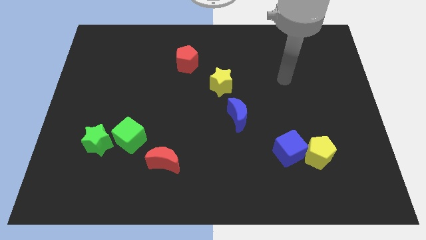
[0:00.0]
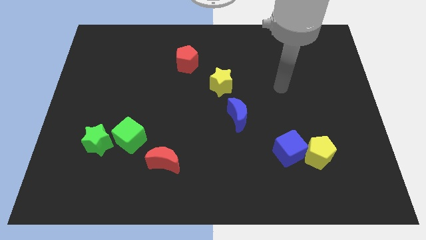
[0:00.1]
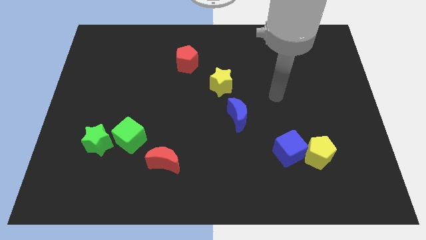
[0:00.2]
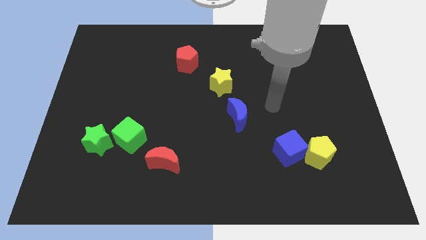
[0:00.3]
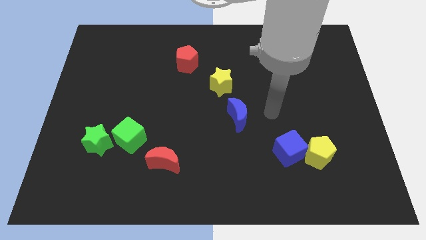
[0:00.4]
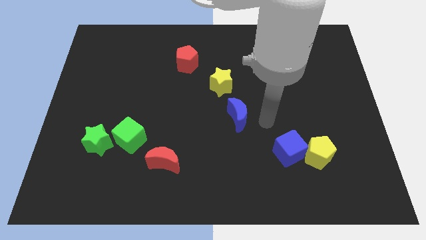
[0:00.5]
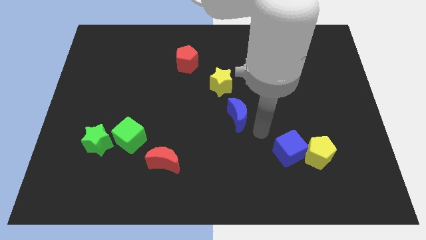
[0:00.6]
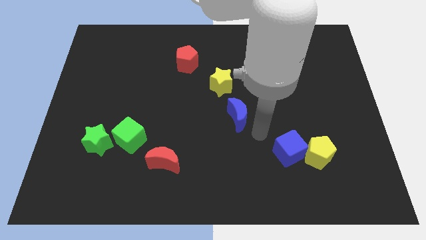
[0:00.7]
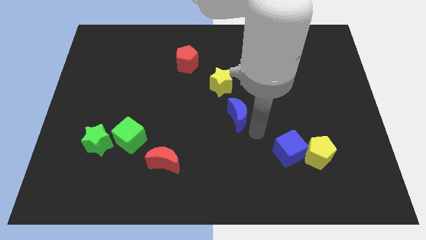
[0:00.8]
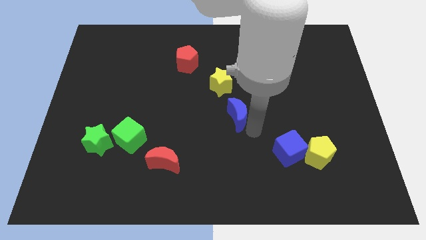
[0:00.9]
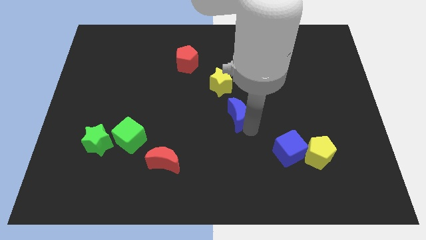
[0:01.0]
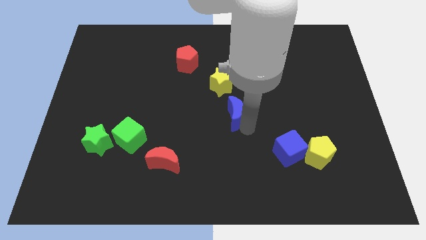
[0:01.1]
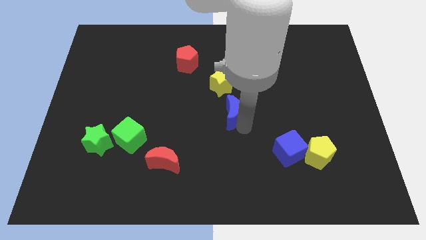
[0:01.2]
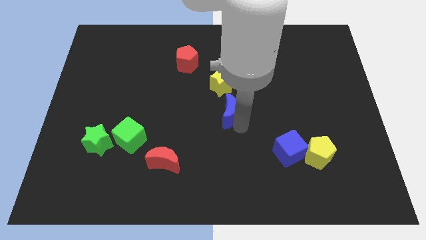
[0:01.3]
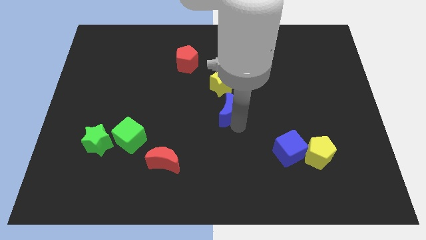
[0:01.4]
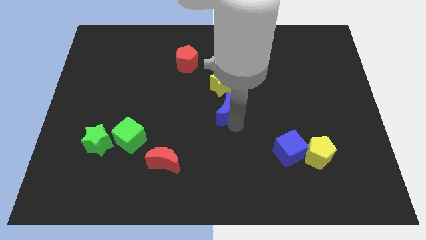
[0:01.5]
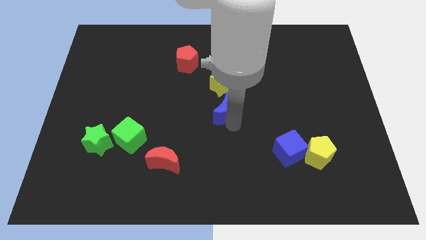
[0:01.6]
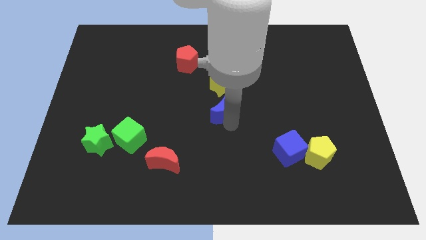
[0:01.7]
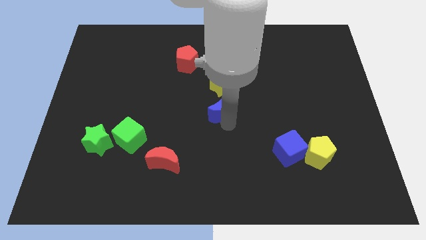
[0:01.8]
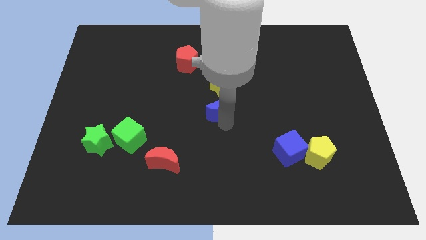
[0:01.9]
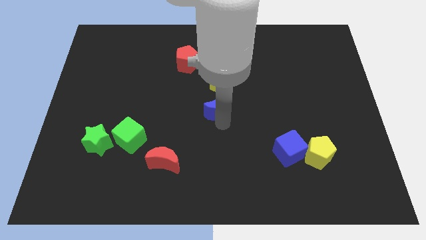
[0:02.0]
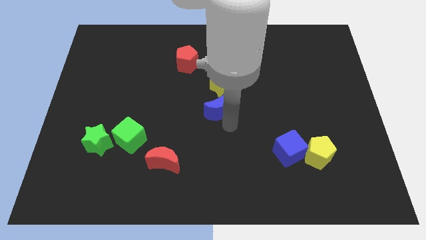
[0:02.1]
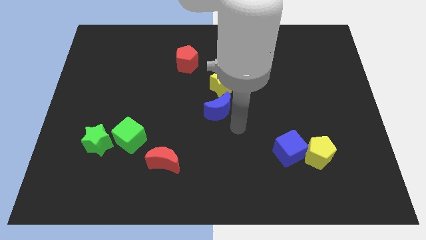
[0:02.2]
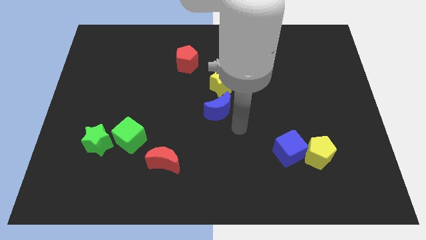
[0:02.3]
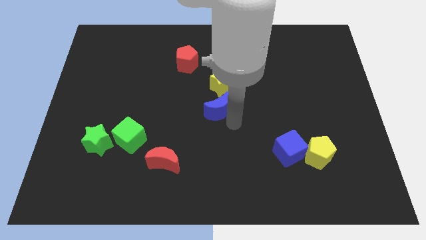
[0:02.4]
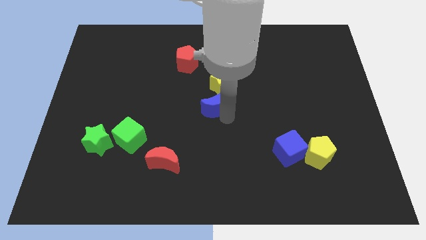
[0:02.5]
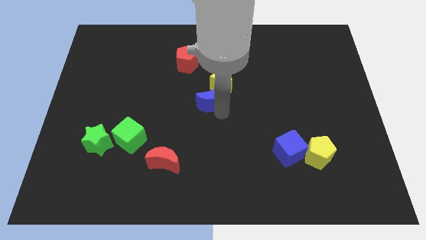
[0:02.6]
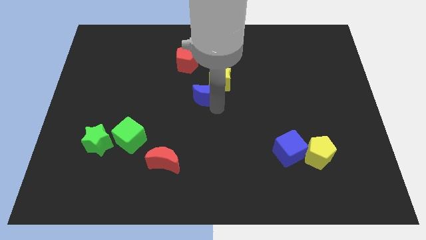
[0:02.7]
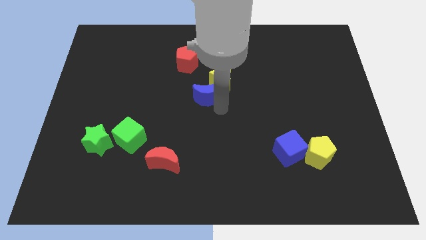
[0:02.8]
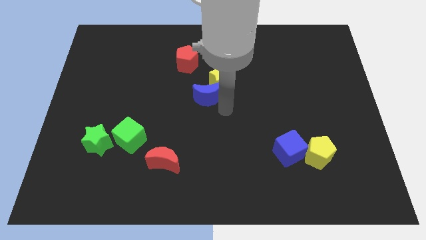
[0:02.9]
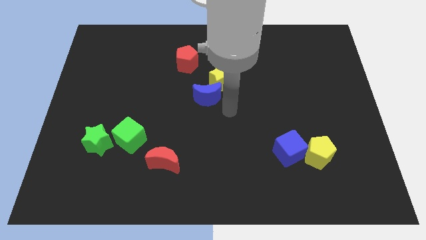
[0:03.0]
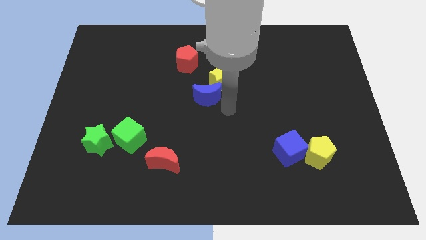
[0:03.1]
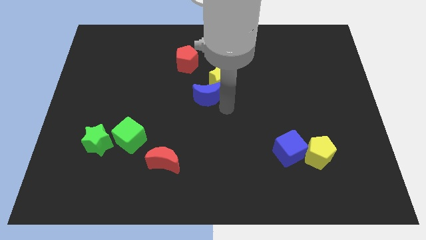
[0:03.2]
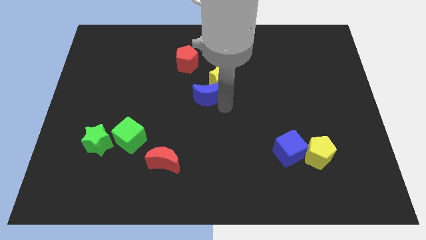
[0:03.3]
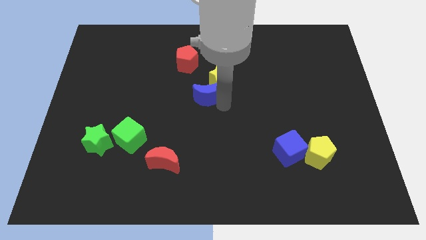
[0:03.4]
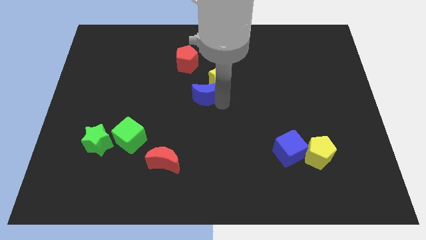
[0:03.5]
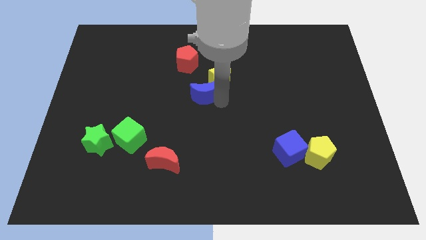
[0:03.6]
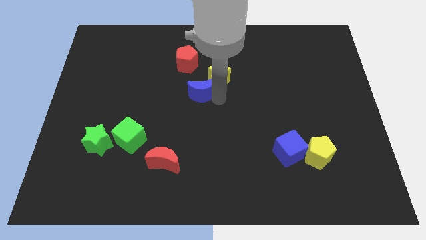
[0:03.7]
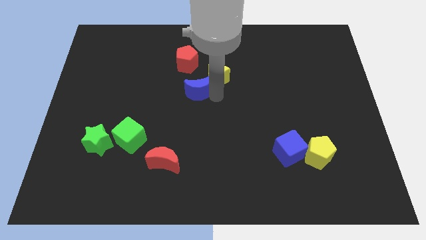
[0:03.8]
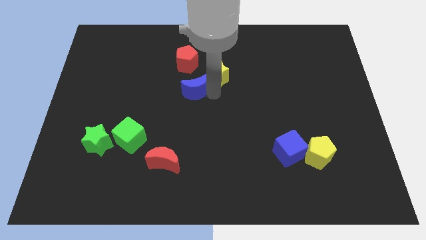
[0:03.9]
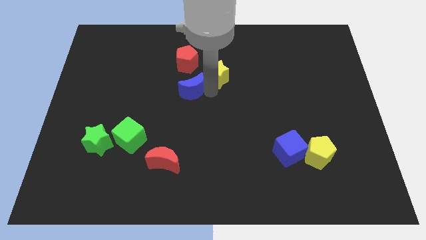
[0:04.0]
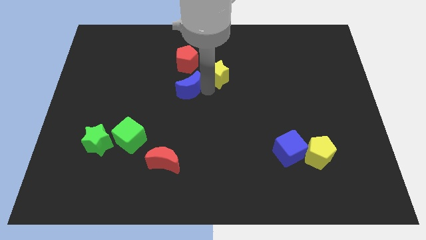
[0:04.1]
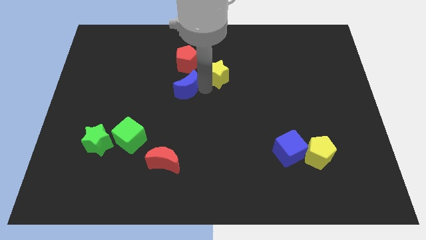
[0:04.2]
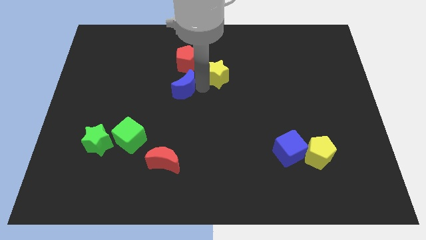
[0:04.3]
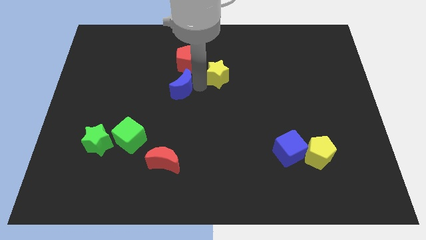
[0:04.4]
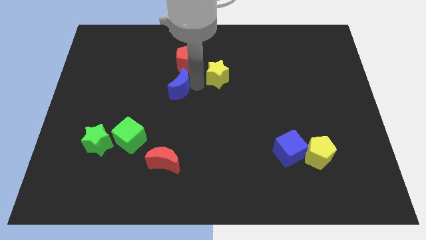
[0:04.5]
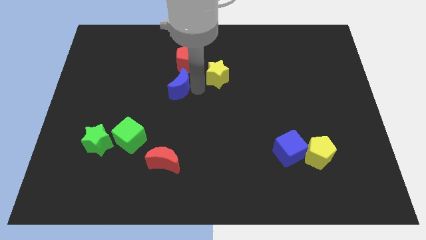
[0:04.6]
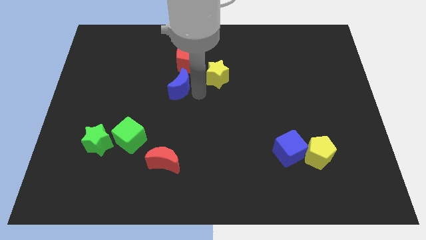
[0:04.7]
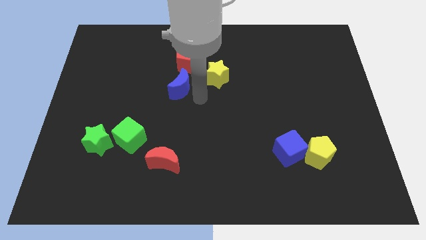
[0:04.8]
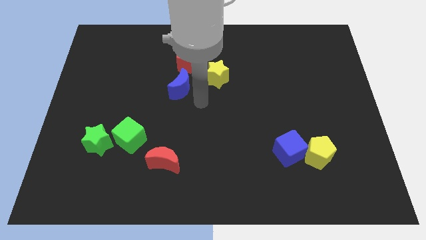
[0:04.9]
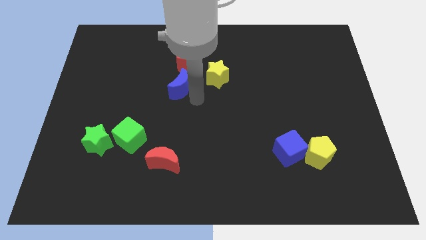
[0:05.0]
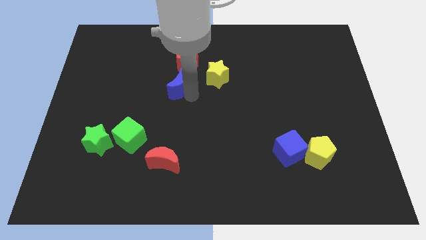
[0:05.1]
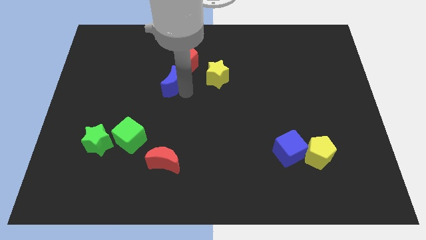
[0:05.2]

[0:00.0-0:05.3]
slide the blue moon diagonally down and to the left of the red pentagon

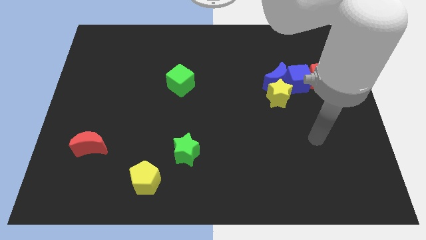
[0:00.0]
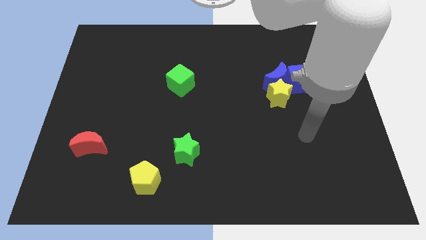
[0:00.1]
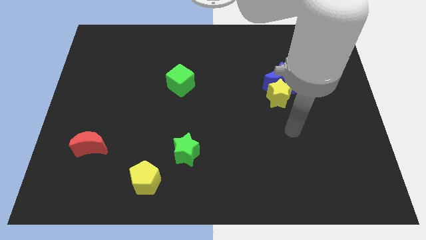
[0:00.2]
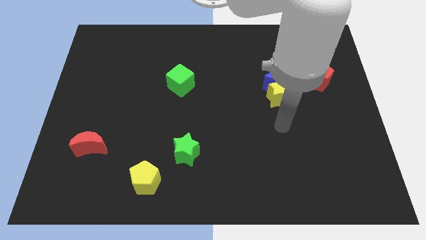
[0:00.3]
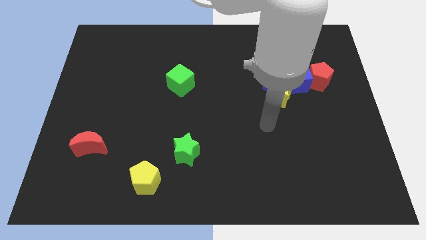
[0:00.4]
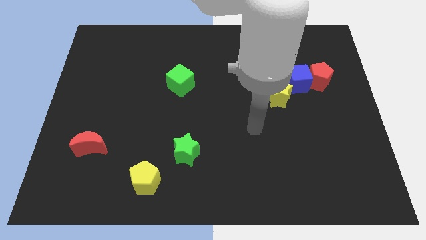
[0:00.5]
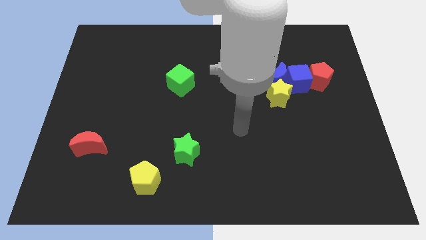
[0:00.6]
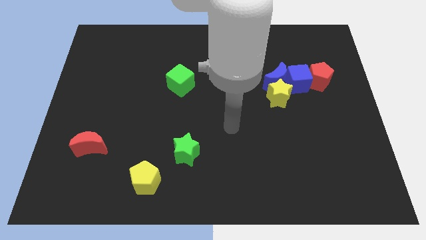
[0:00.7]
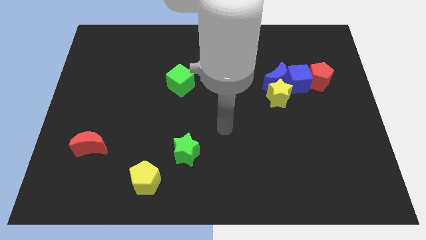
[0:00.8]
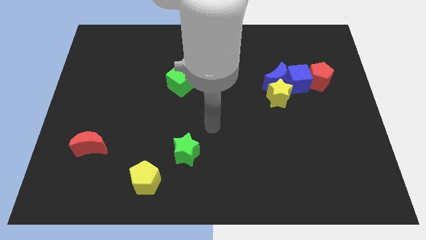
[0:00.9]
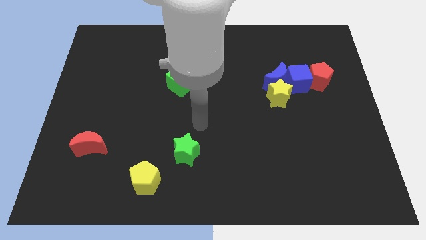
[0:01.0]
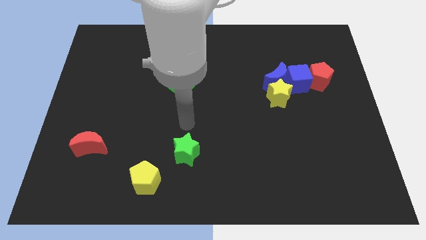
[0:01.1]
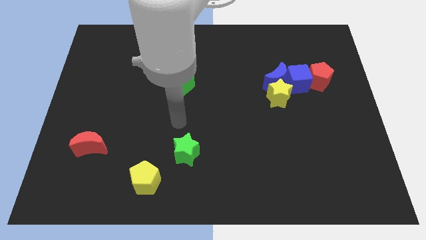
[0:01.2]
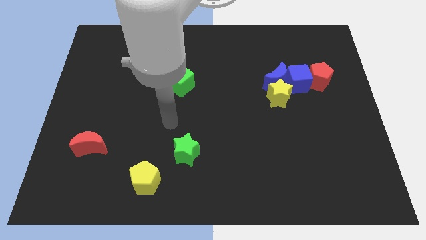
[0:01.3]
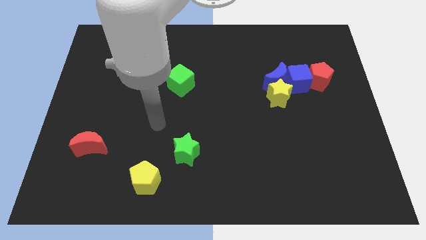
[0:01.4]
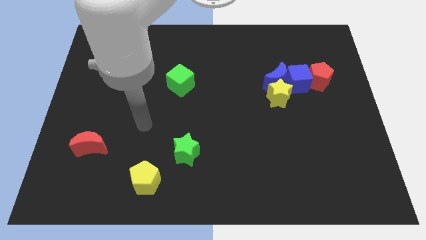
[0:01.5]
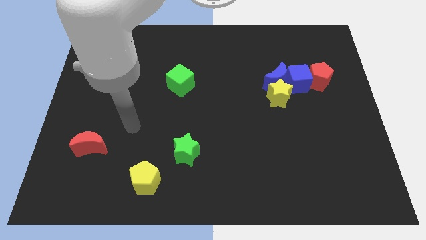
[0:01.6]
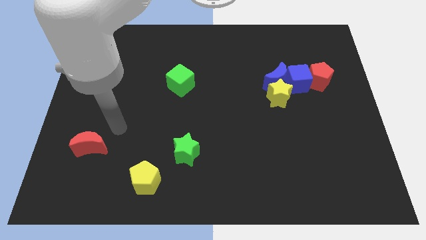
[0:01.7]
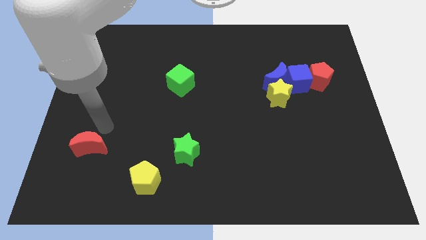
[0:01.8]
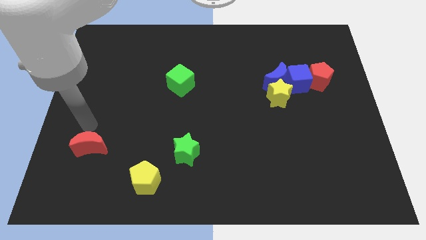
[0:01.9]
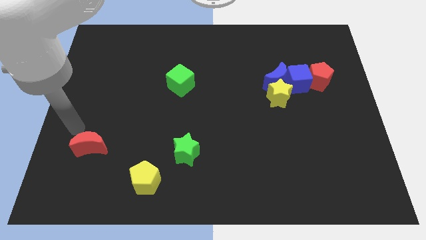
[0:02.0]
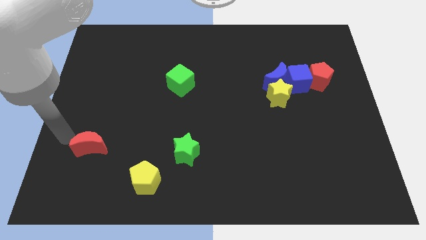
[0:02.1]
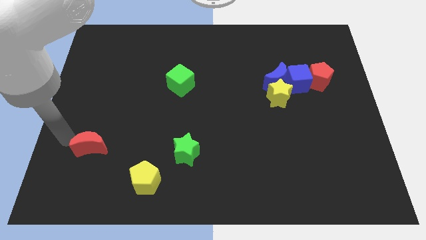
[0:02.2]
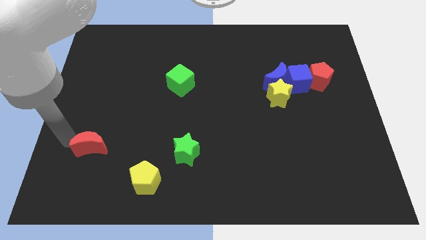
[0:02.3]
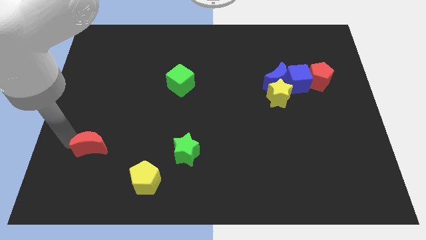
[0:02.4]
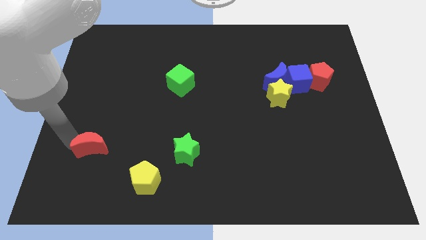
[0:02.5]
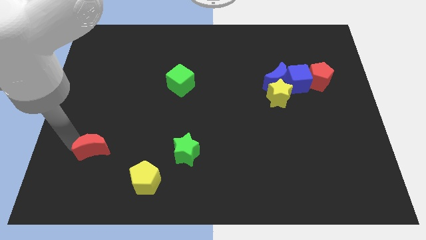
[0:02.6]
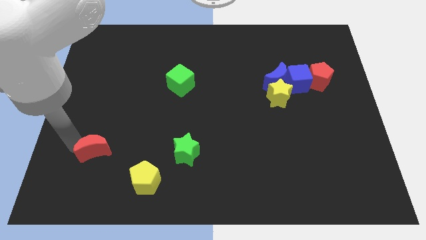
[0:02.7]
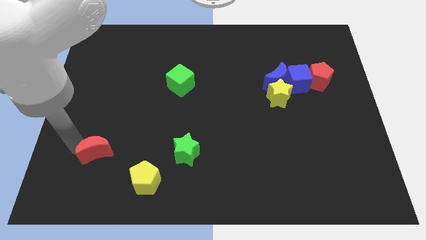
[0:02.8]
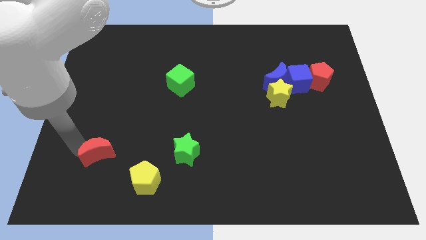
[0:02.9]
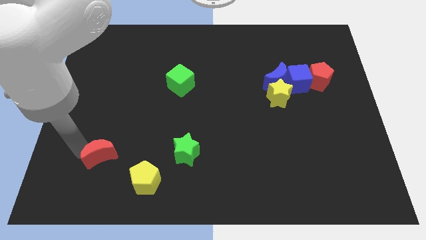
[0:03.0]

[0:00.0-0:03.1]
push the red moon to the top left of the yellow pentagon

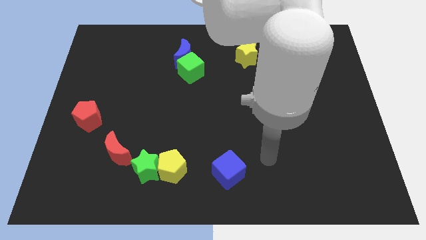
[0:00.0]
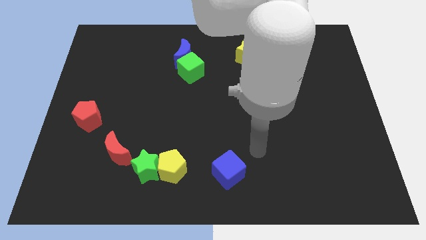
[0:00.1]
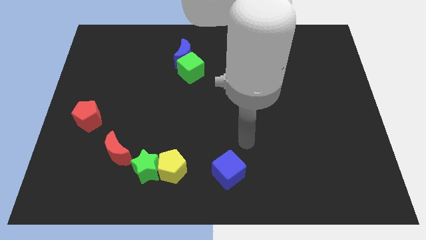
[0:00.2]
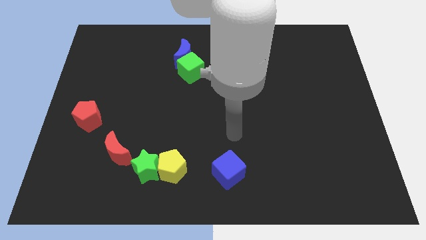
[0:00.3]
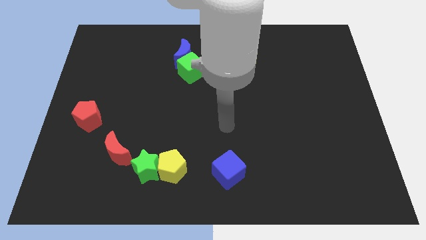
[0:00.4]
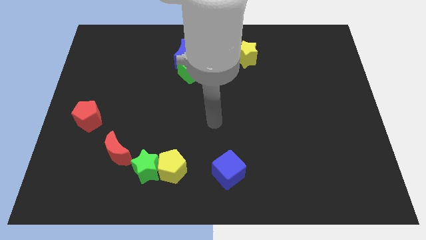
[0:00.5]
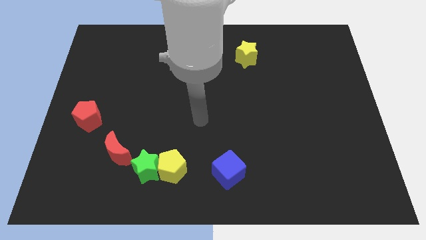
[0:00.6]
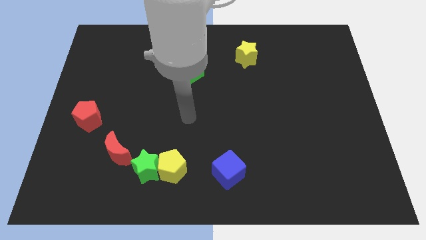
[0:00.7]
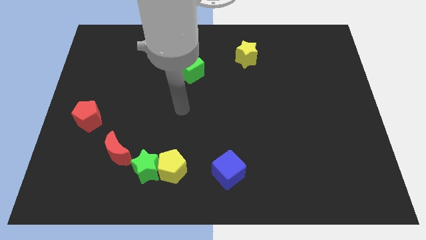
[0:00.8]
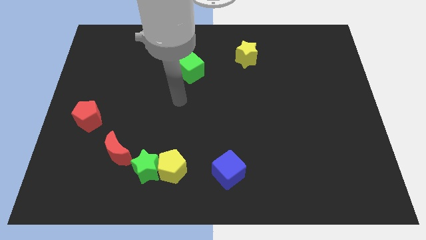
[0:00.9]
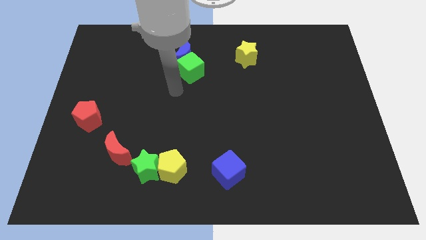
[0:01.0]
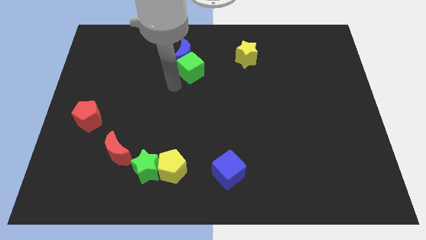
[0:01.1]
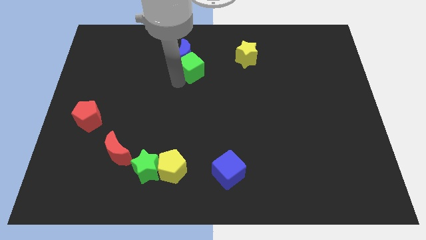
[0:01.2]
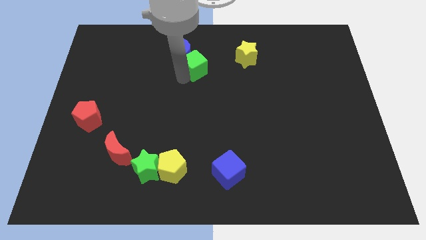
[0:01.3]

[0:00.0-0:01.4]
move the green cube to the left side of the yellow star
